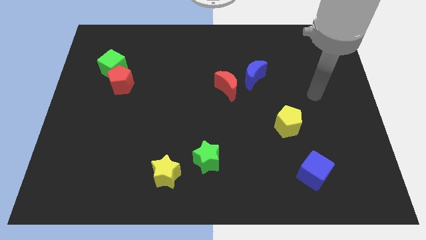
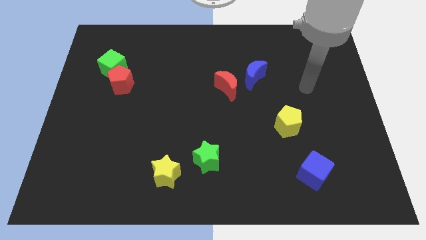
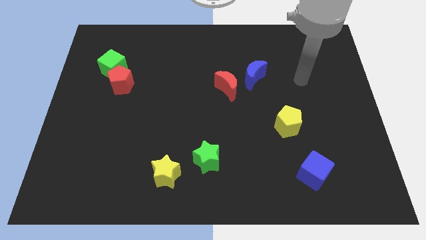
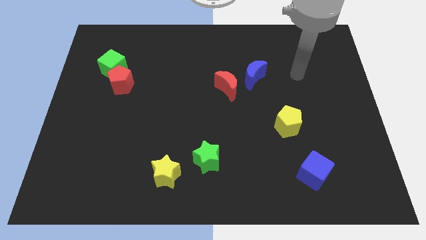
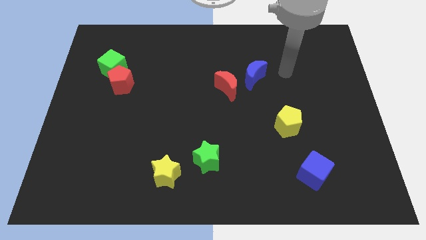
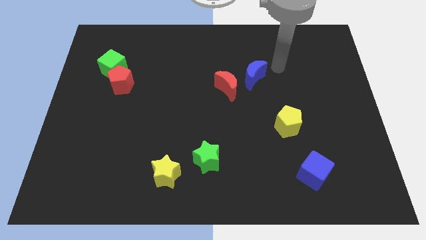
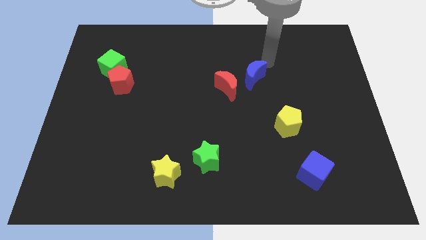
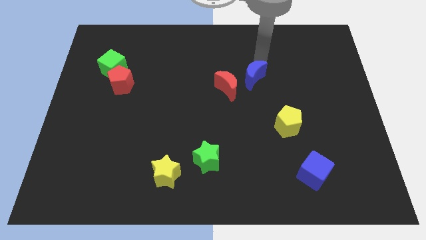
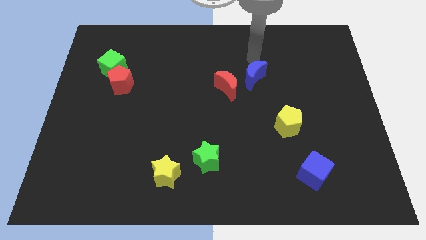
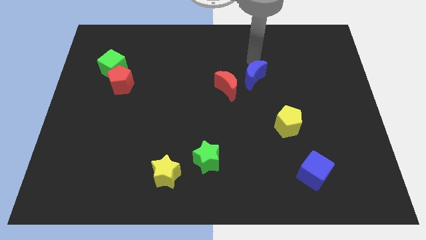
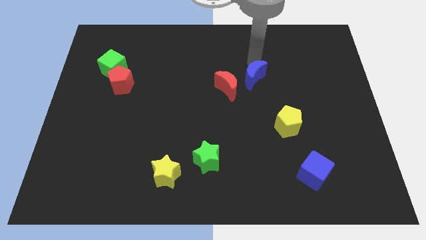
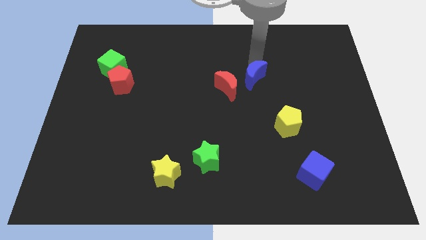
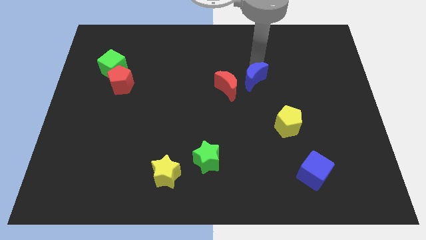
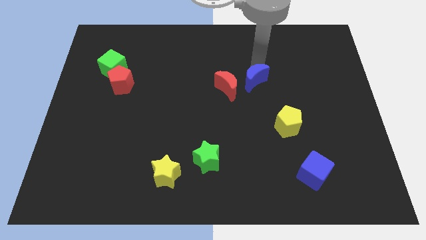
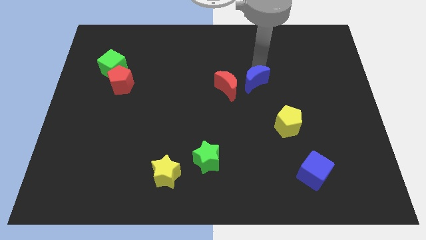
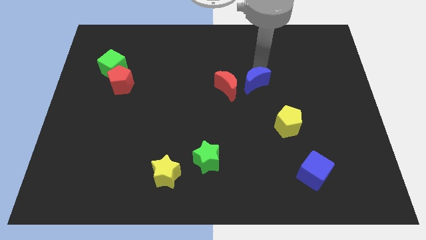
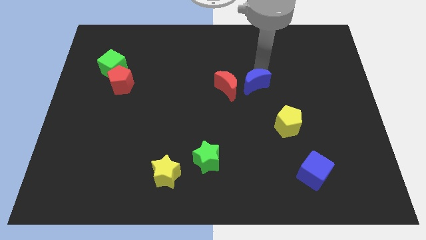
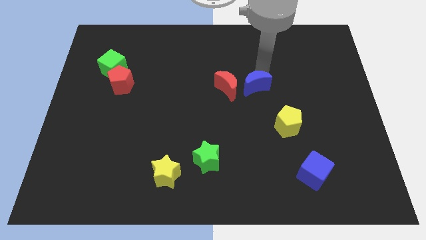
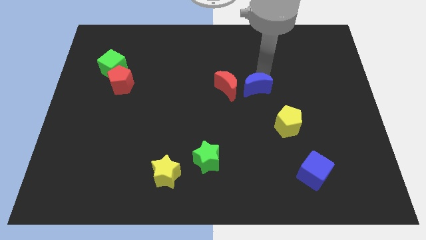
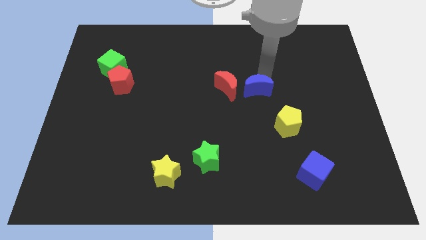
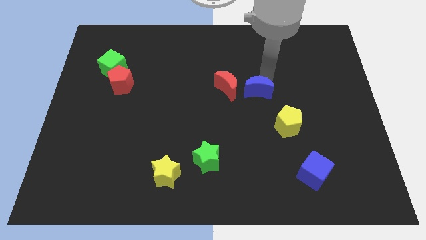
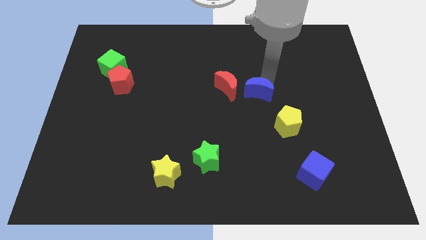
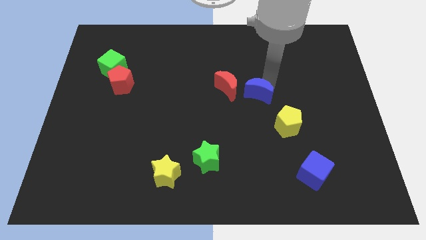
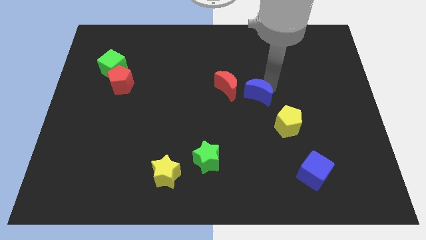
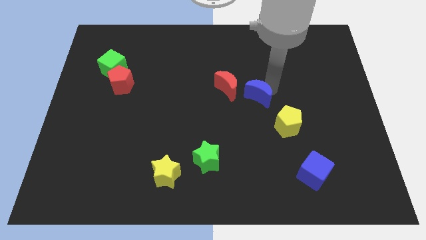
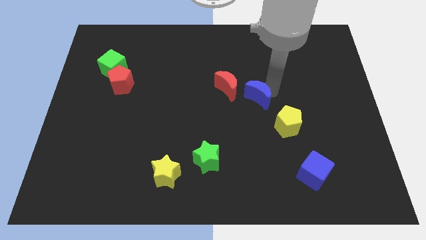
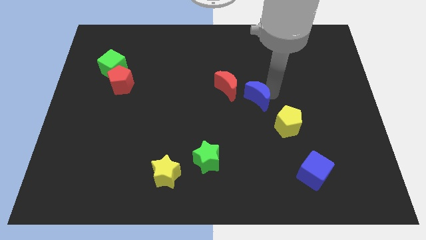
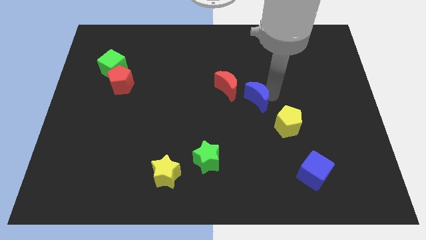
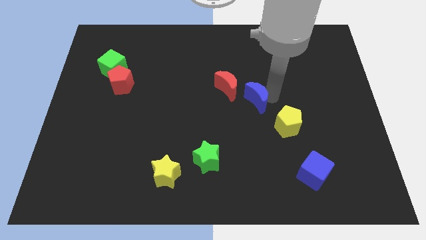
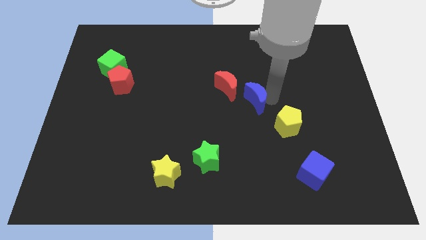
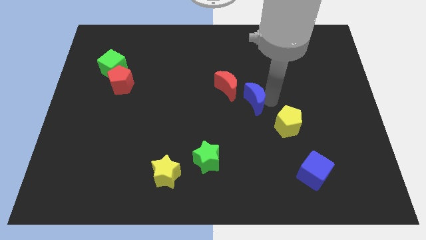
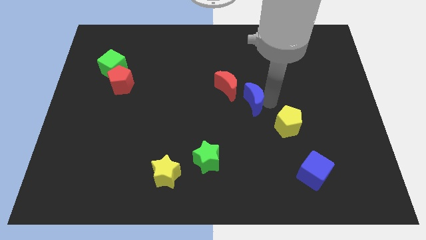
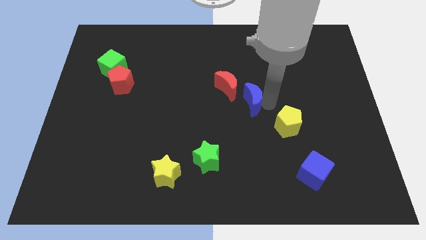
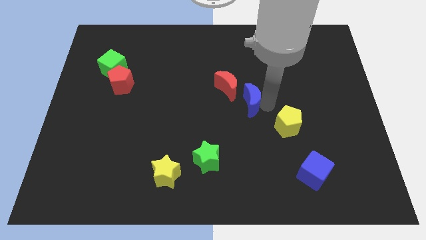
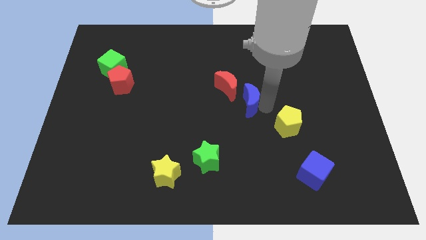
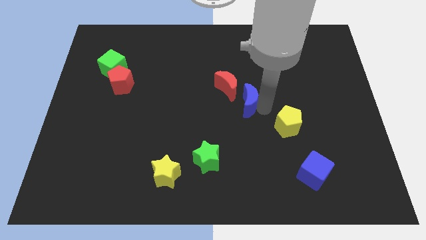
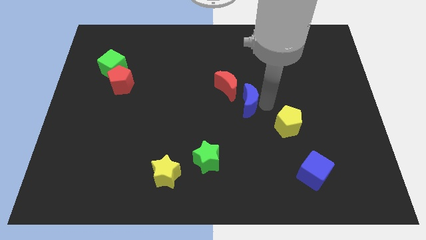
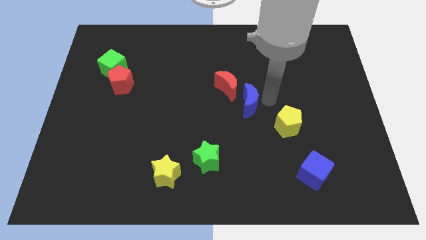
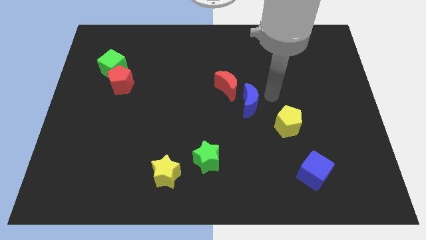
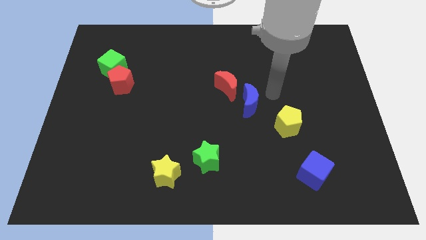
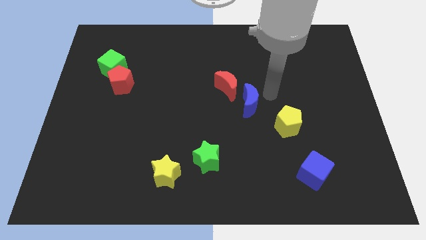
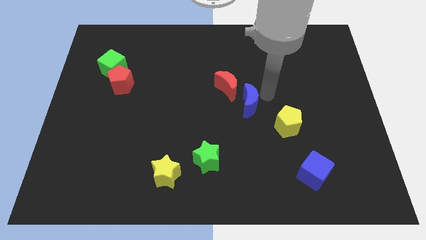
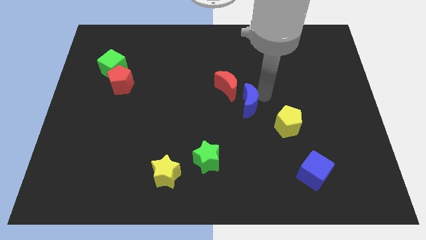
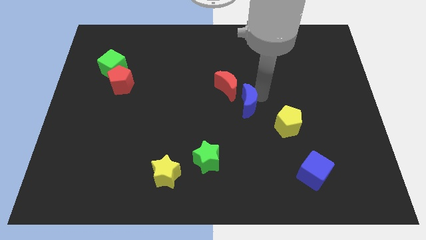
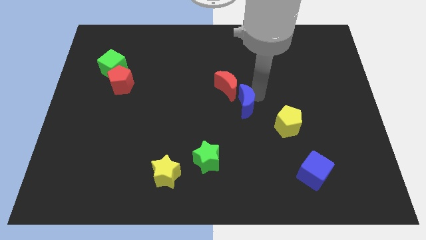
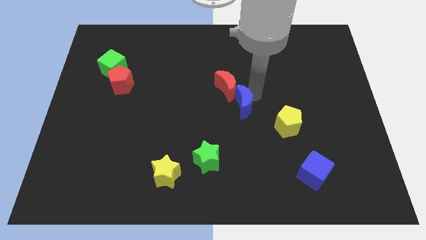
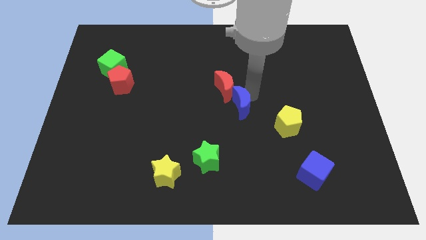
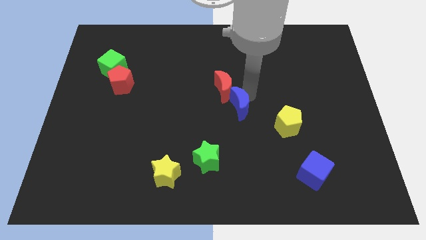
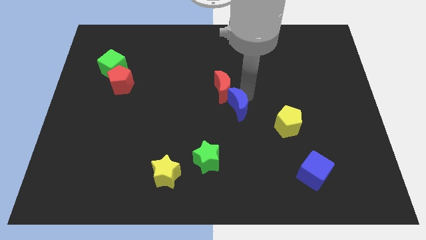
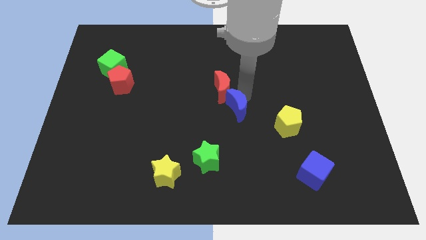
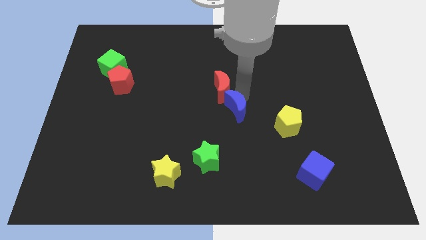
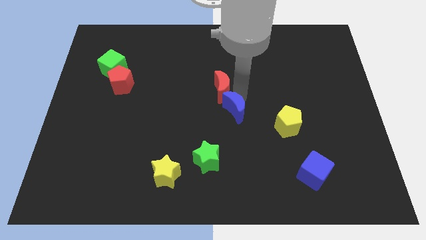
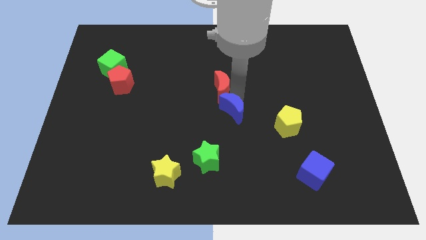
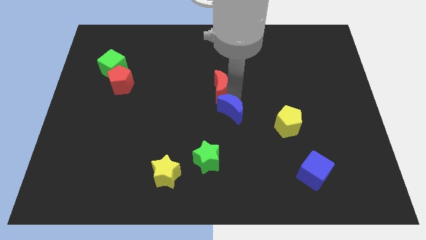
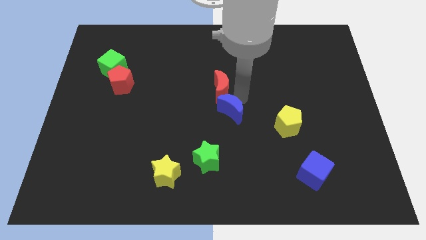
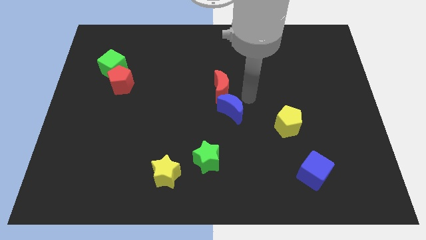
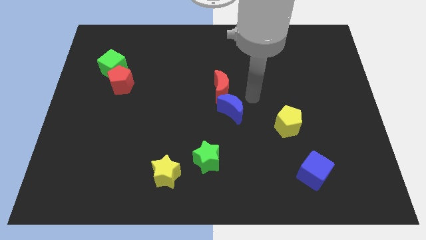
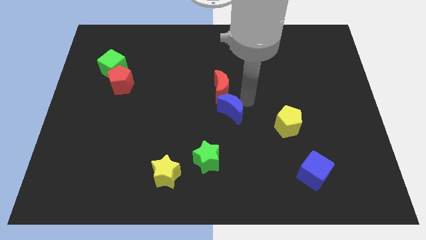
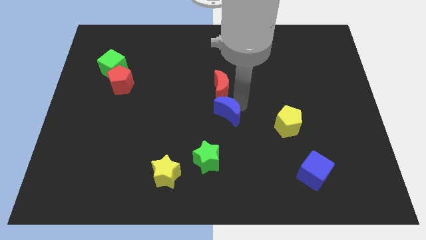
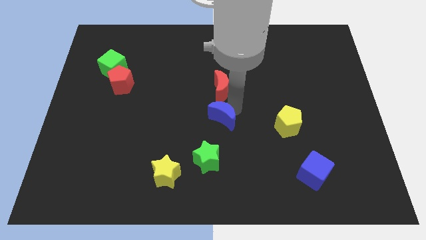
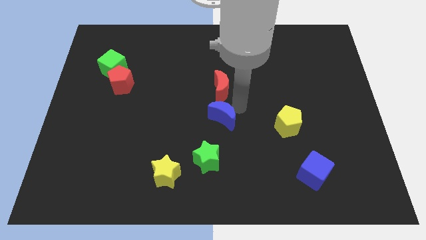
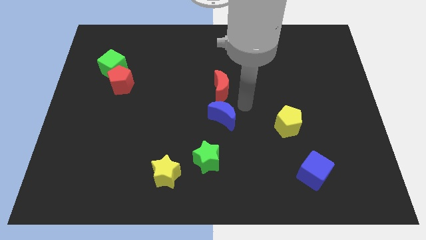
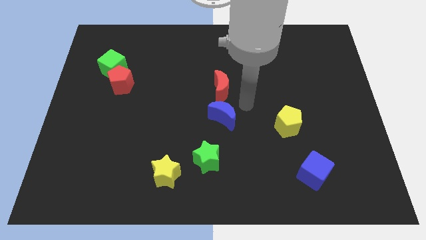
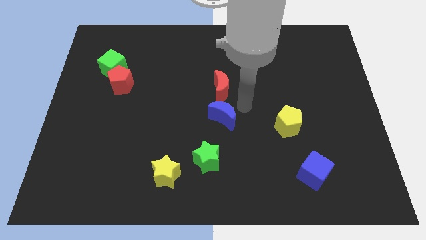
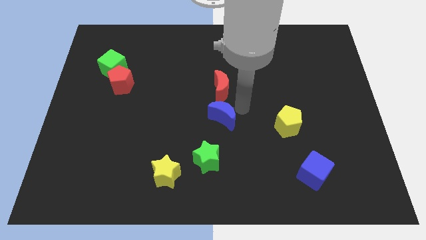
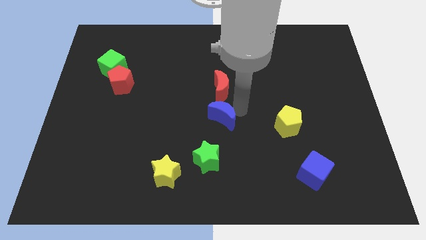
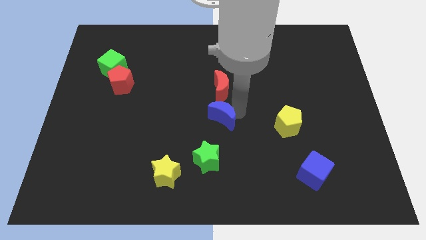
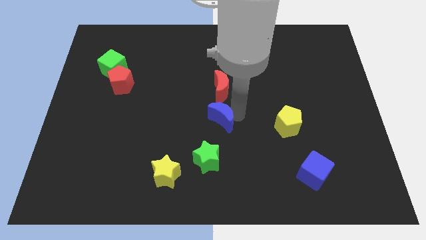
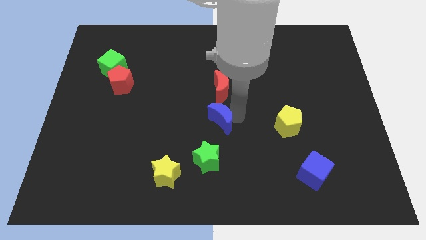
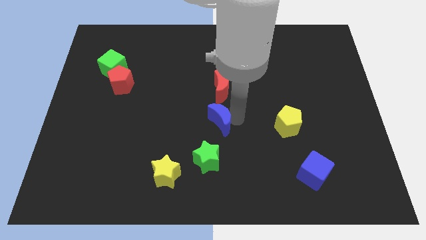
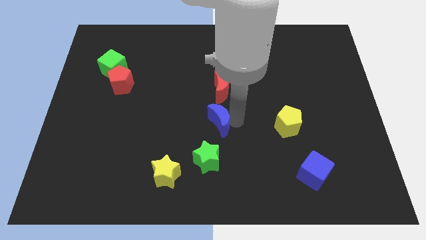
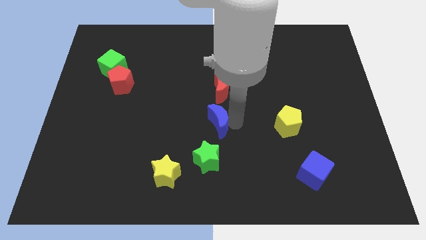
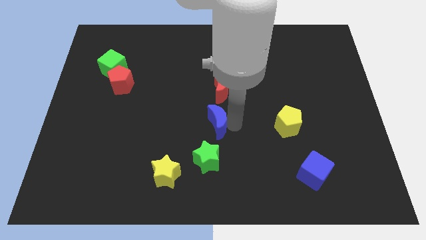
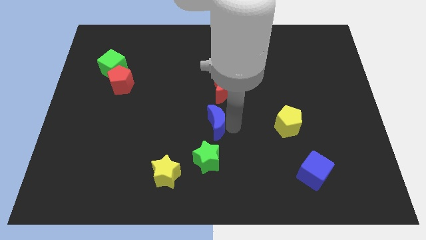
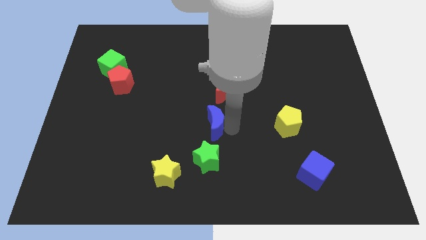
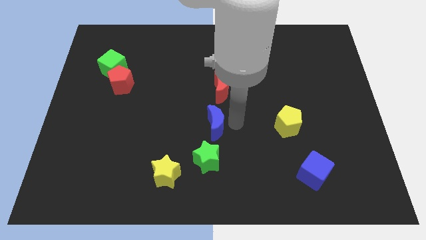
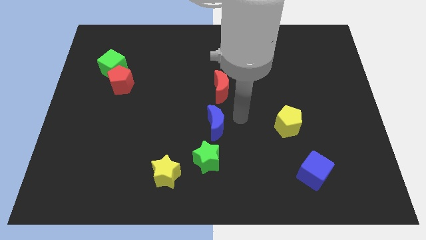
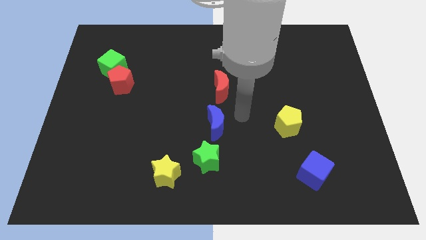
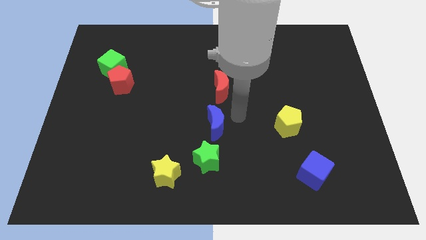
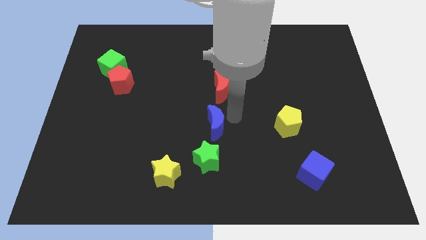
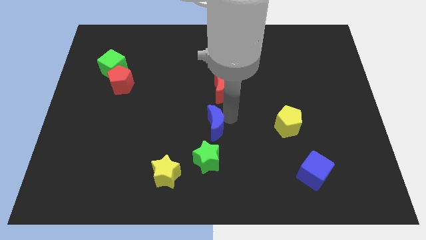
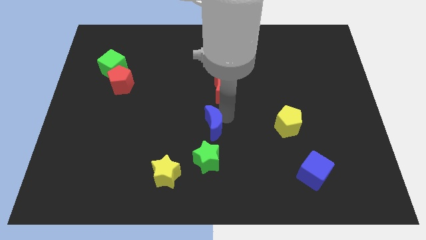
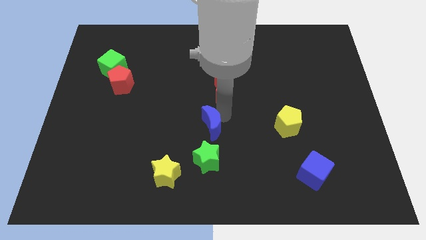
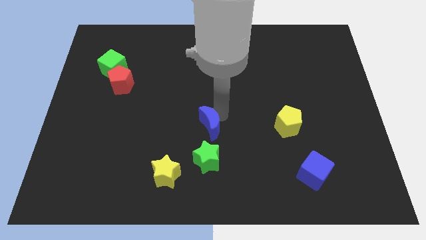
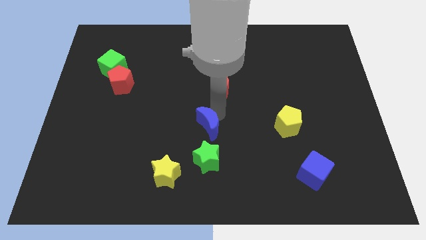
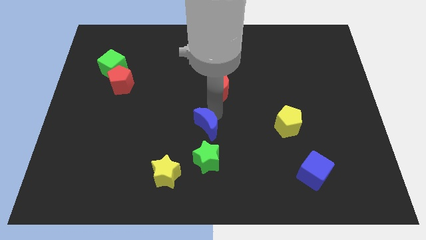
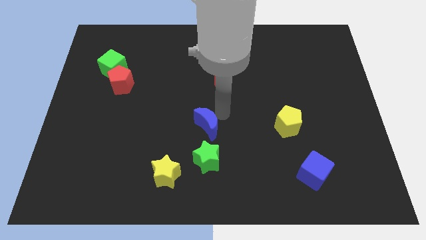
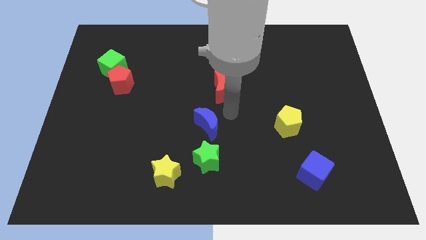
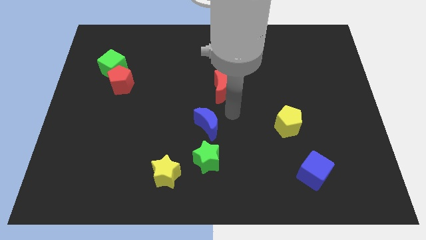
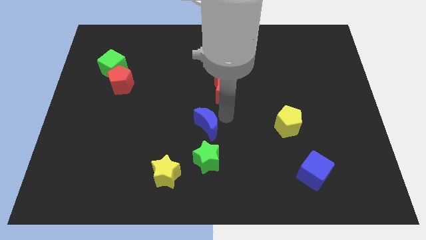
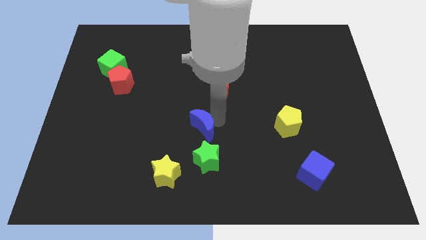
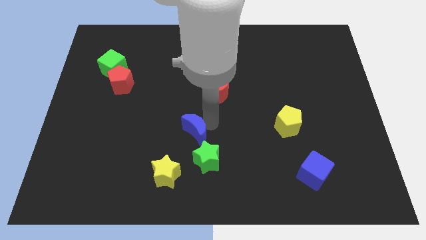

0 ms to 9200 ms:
push the blue moon diagonally down and left
